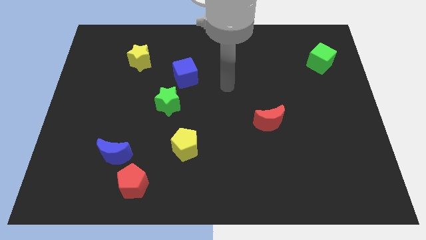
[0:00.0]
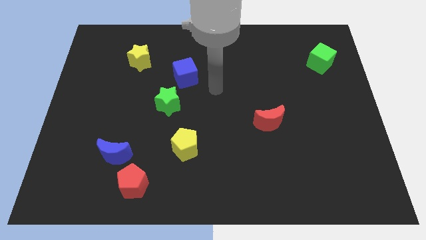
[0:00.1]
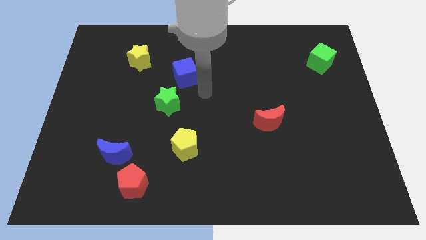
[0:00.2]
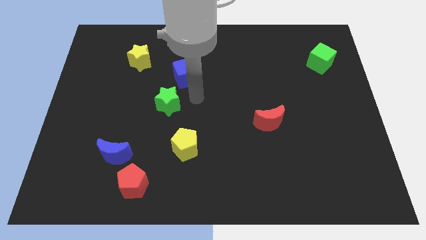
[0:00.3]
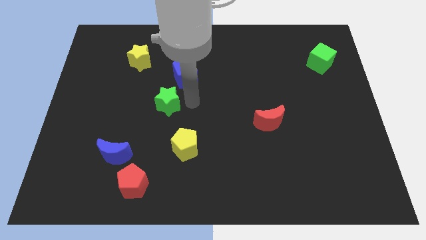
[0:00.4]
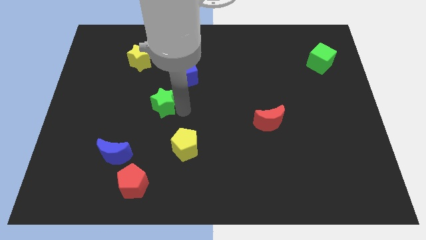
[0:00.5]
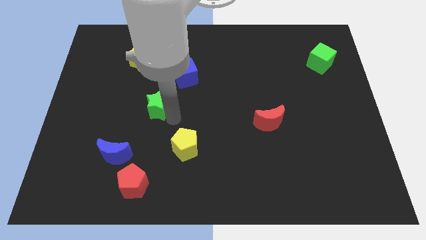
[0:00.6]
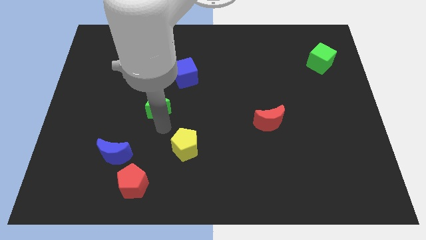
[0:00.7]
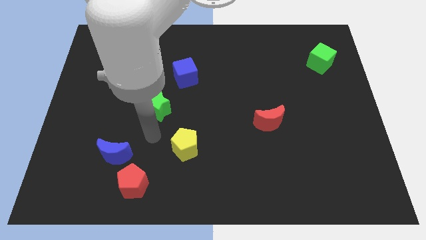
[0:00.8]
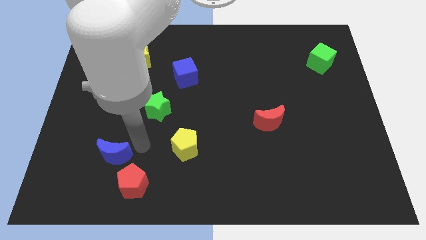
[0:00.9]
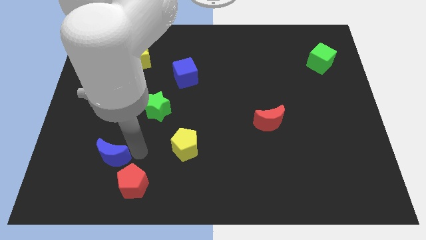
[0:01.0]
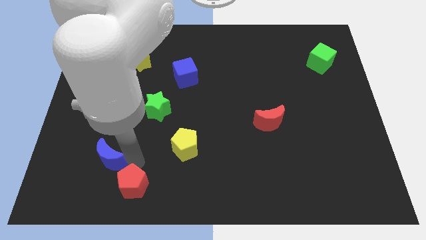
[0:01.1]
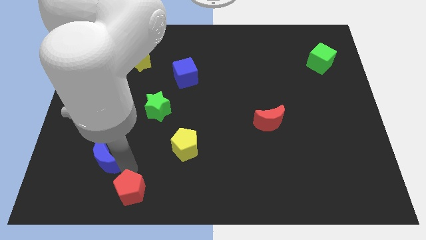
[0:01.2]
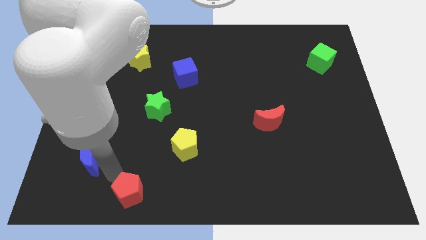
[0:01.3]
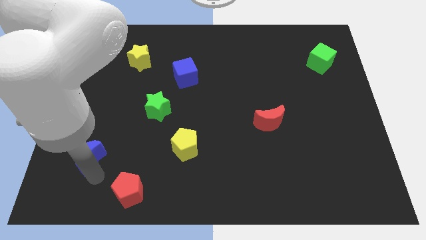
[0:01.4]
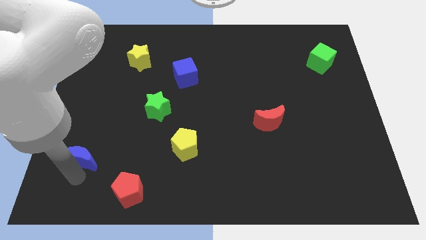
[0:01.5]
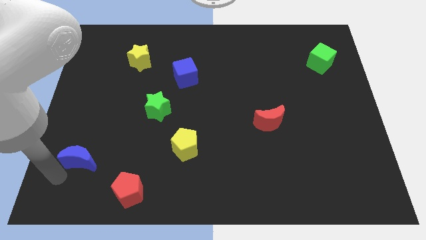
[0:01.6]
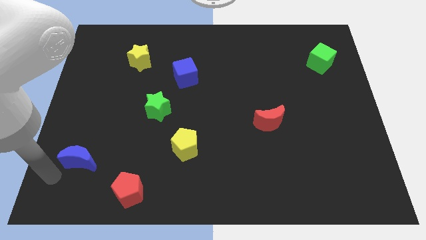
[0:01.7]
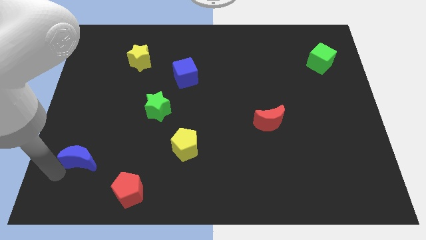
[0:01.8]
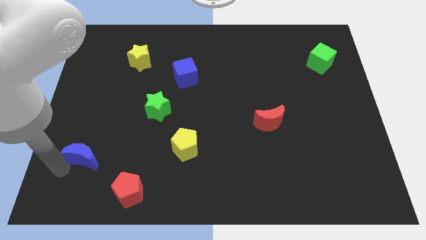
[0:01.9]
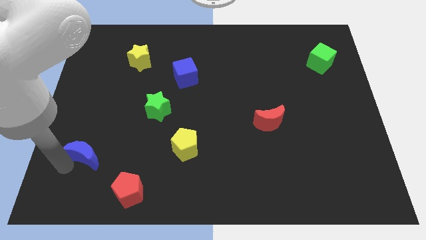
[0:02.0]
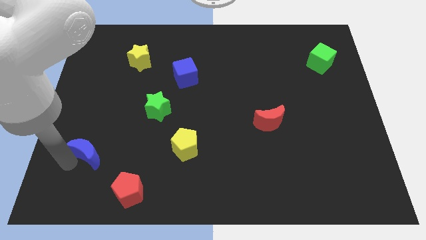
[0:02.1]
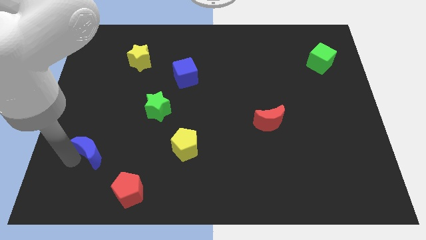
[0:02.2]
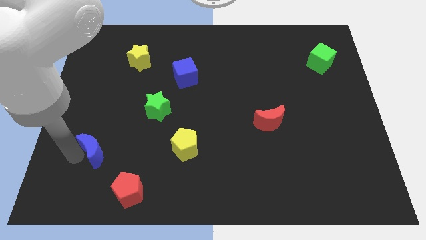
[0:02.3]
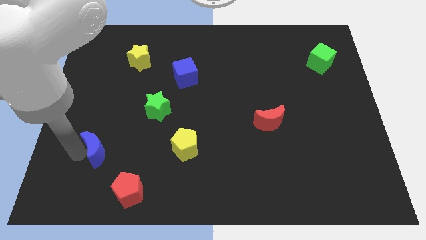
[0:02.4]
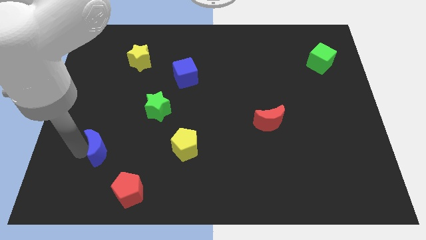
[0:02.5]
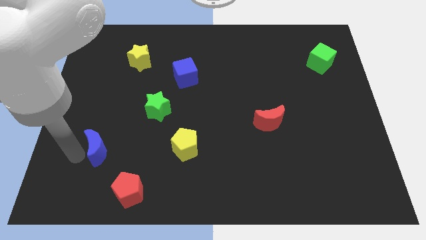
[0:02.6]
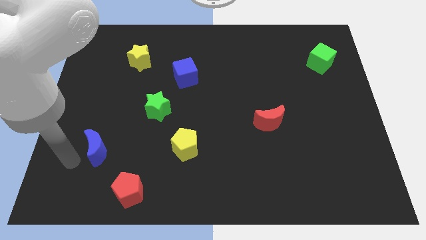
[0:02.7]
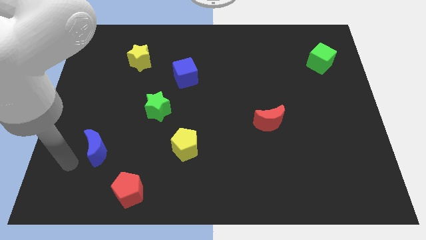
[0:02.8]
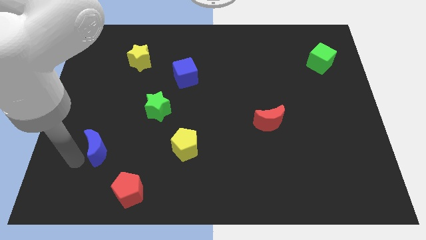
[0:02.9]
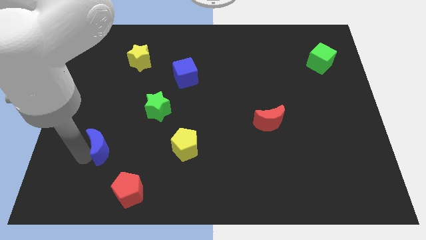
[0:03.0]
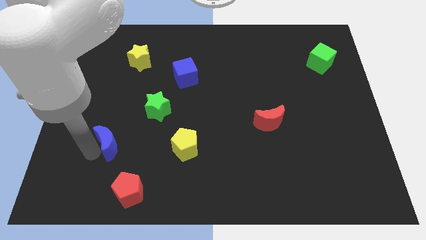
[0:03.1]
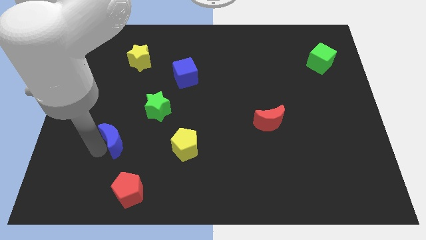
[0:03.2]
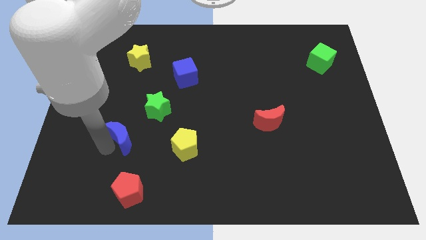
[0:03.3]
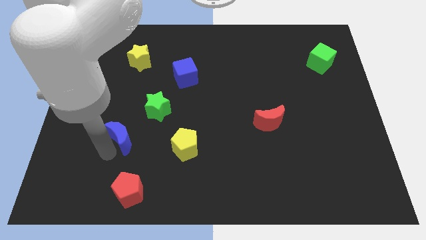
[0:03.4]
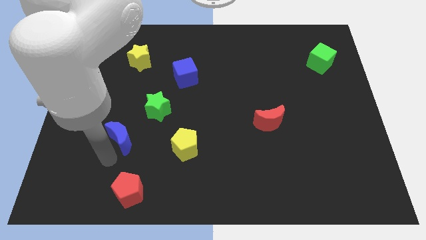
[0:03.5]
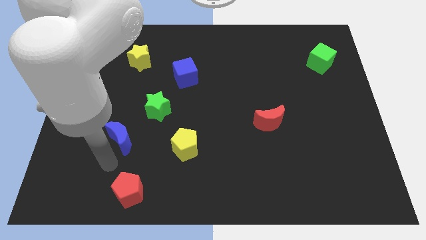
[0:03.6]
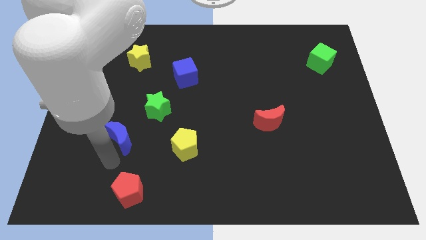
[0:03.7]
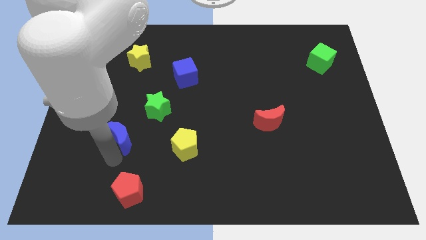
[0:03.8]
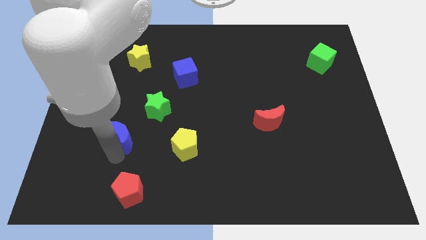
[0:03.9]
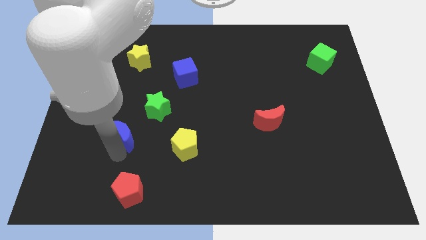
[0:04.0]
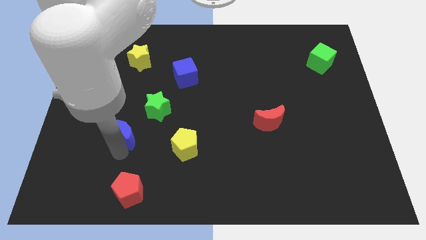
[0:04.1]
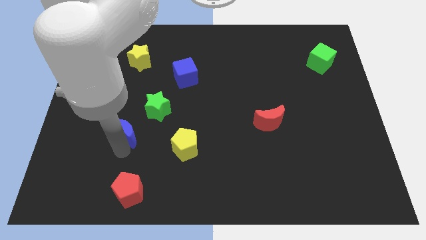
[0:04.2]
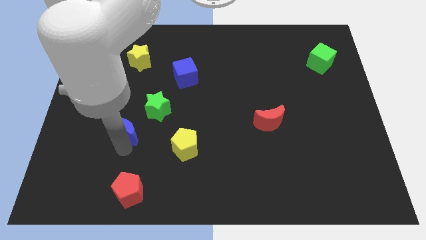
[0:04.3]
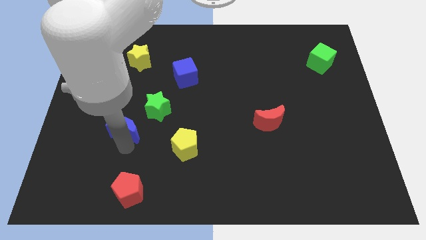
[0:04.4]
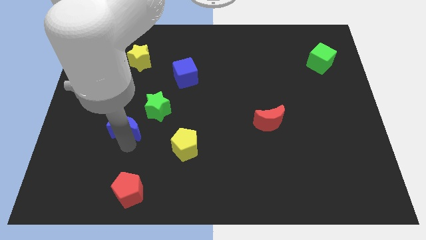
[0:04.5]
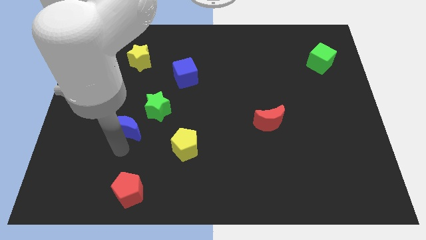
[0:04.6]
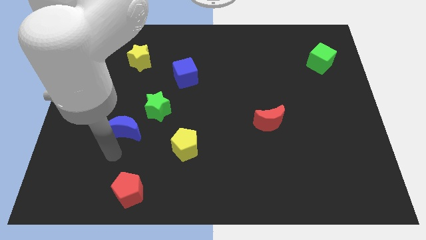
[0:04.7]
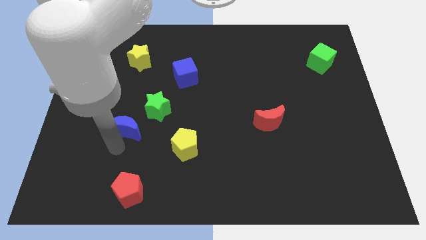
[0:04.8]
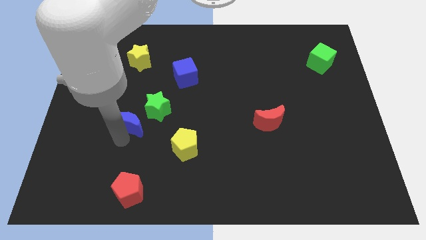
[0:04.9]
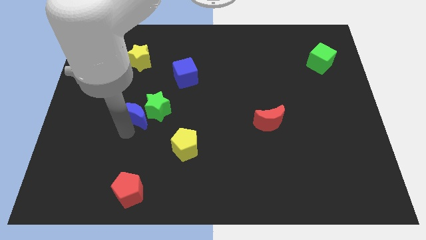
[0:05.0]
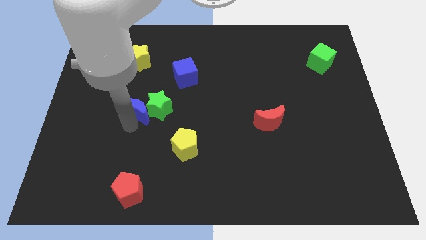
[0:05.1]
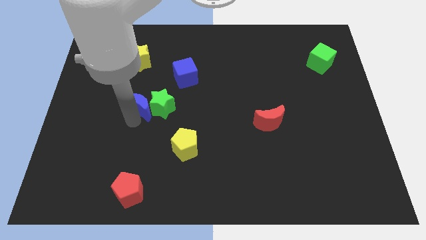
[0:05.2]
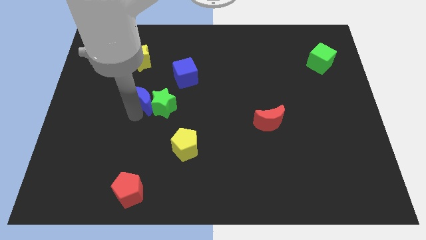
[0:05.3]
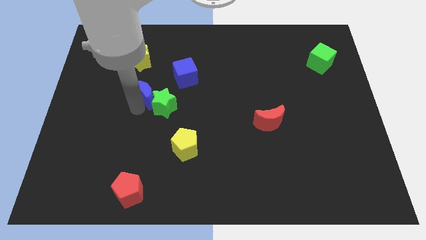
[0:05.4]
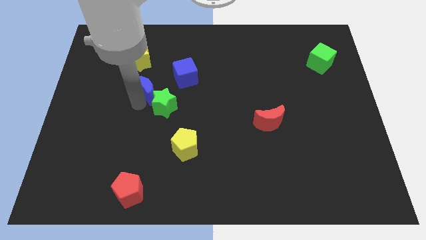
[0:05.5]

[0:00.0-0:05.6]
slide the blue moon to the top side of the green star

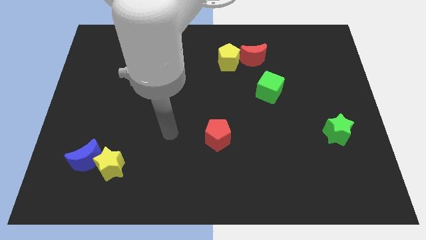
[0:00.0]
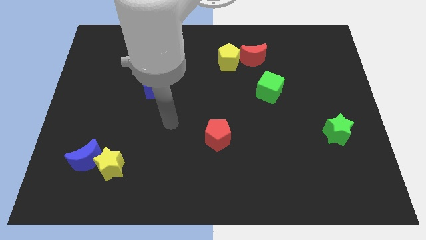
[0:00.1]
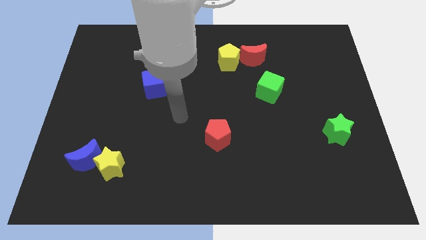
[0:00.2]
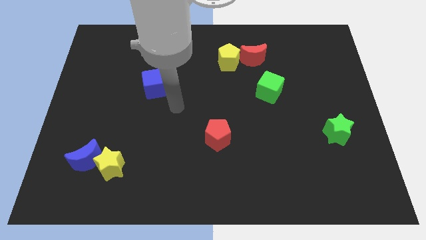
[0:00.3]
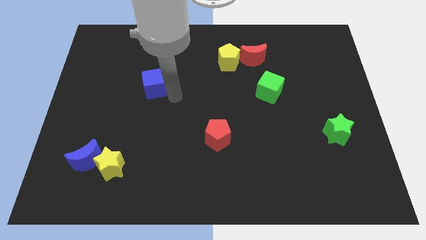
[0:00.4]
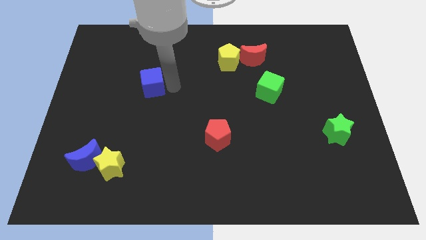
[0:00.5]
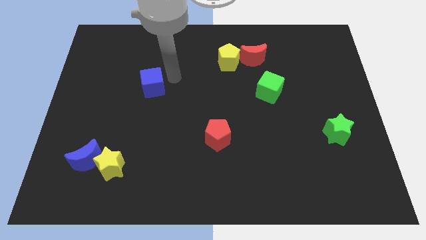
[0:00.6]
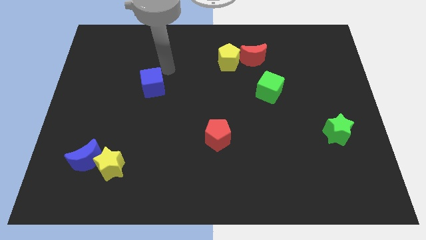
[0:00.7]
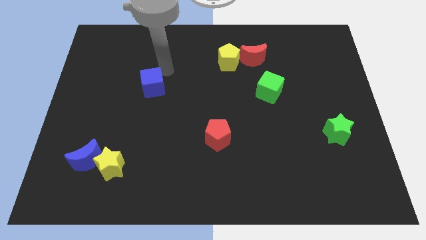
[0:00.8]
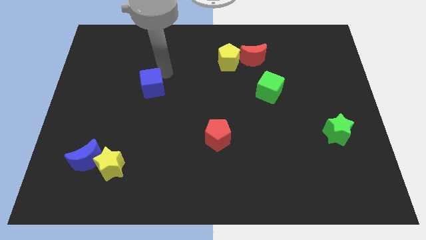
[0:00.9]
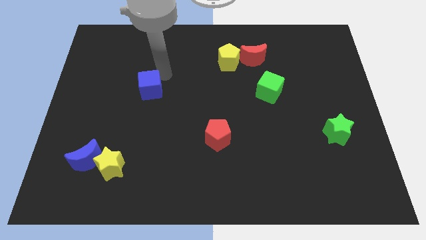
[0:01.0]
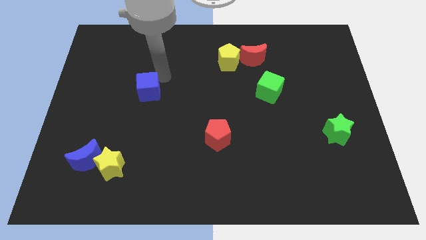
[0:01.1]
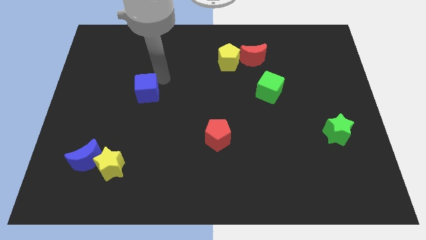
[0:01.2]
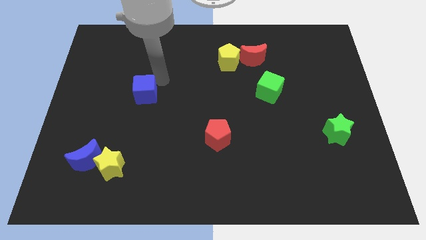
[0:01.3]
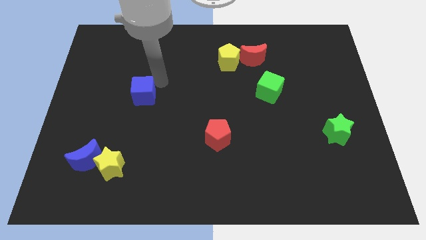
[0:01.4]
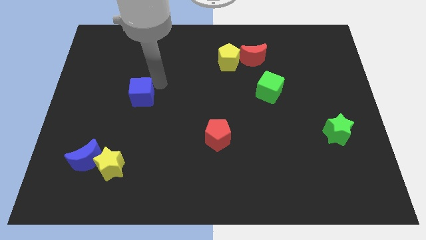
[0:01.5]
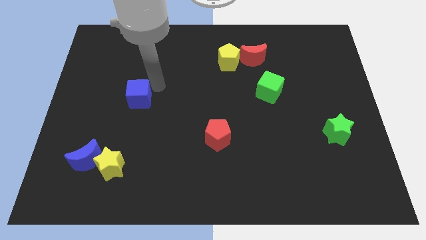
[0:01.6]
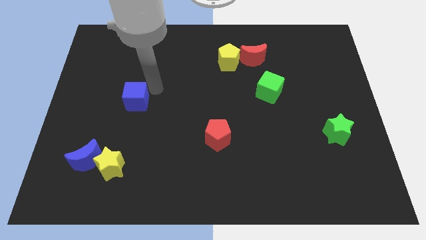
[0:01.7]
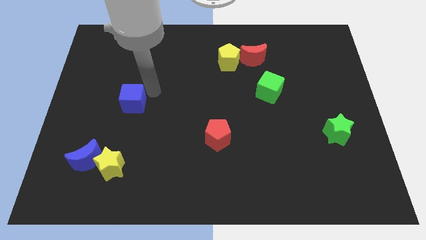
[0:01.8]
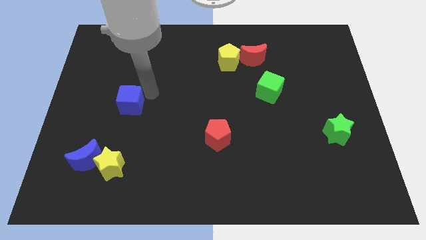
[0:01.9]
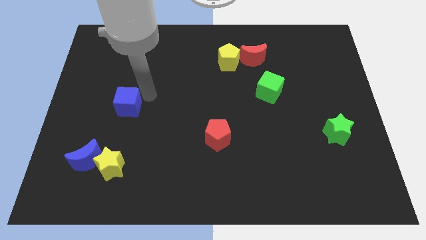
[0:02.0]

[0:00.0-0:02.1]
move the blue cube to the top side of the yellow star

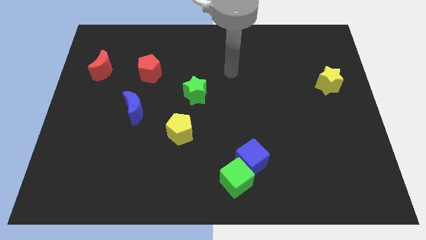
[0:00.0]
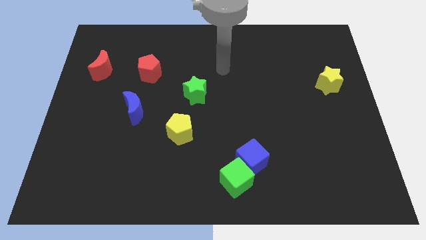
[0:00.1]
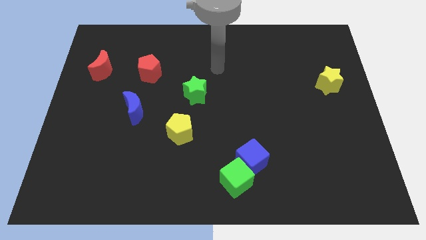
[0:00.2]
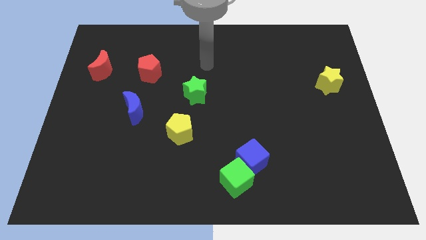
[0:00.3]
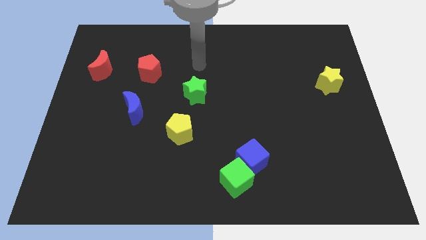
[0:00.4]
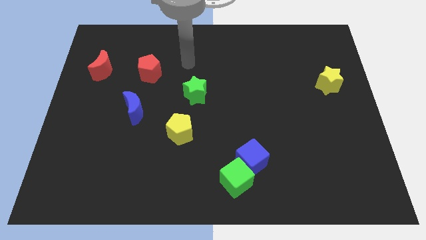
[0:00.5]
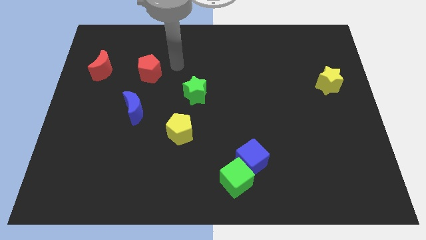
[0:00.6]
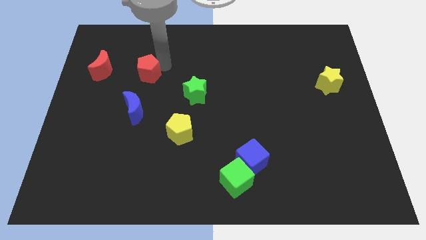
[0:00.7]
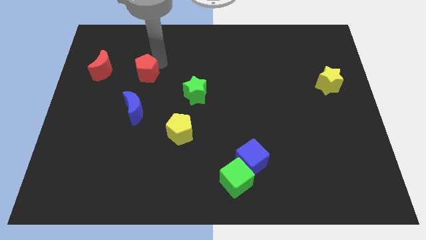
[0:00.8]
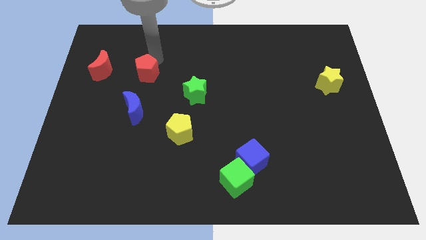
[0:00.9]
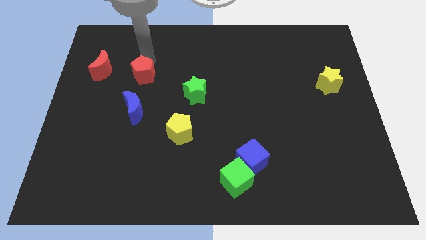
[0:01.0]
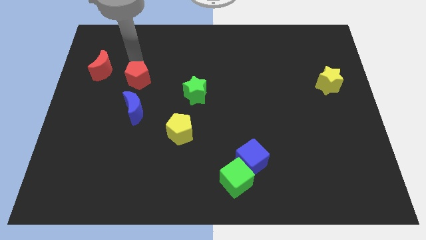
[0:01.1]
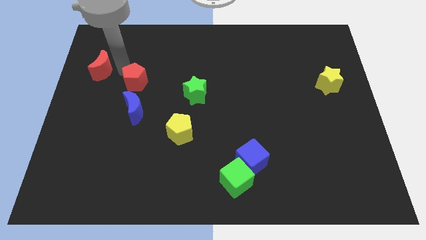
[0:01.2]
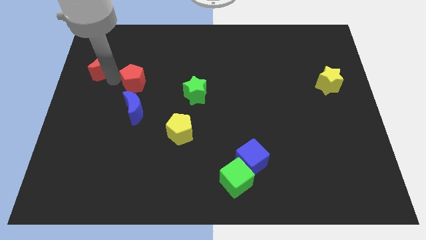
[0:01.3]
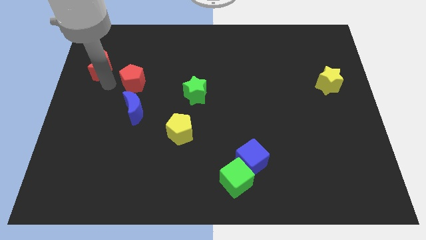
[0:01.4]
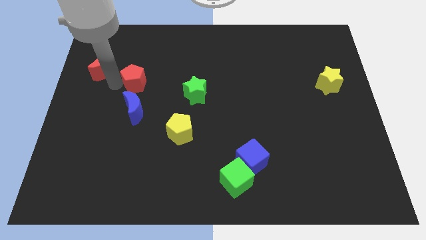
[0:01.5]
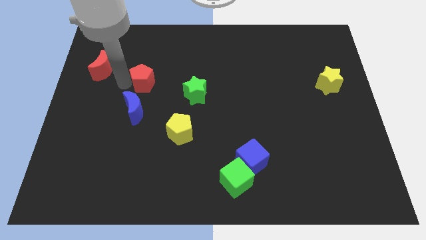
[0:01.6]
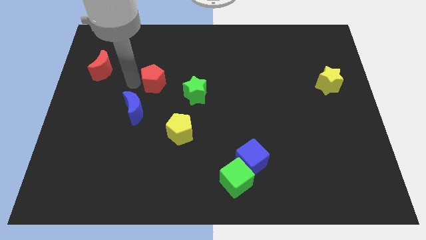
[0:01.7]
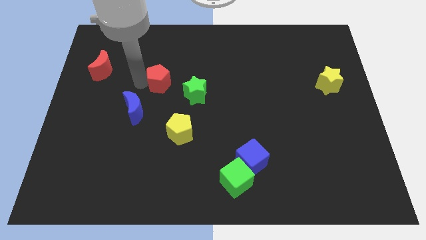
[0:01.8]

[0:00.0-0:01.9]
push the red pentagon diagonally up and to the left of the green star
